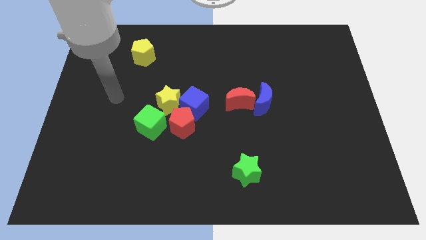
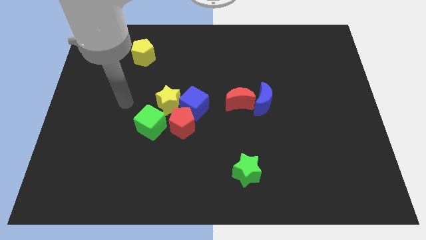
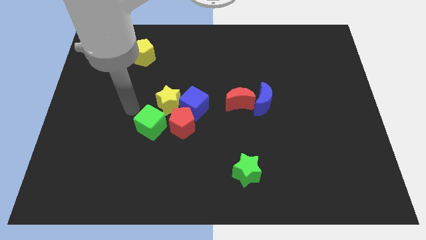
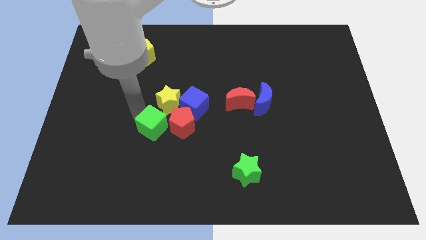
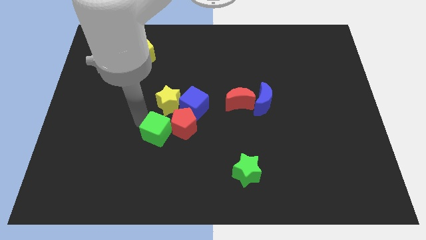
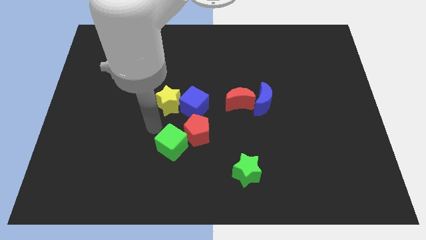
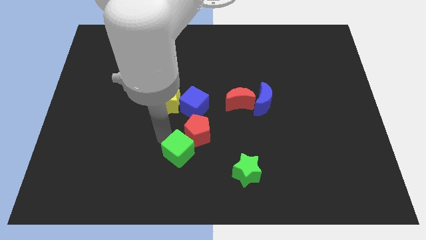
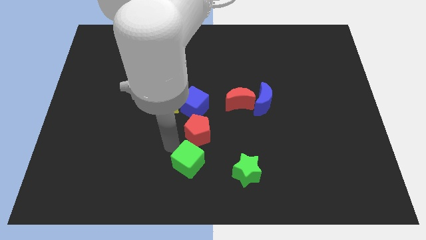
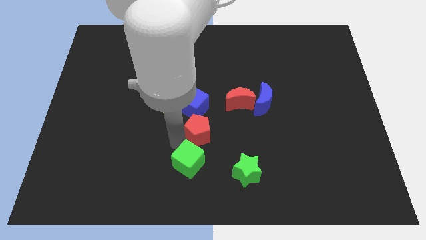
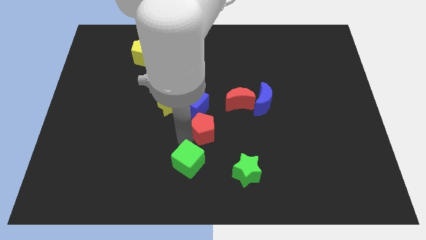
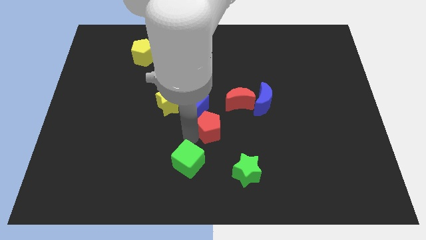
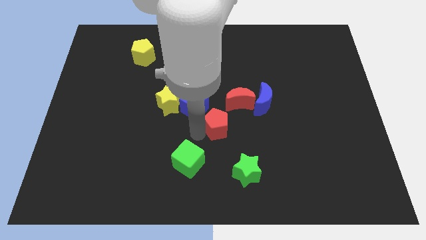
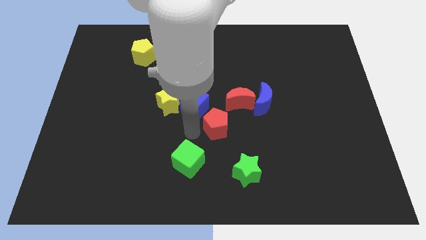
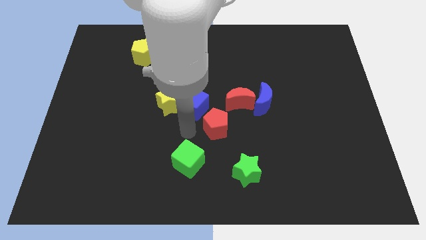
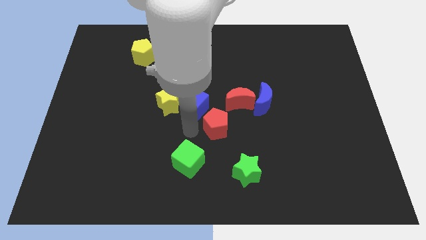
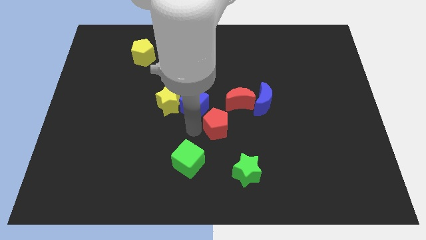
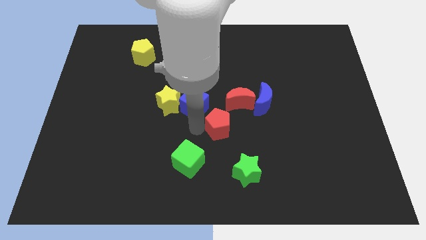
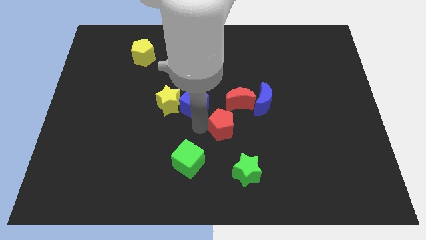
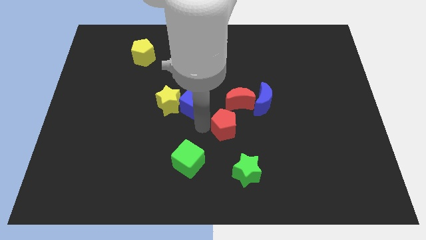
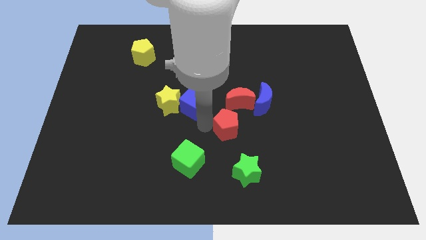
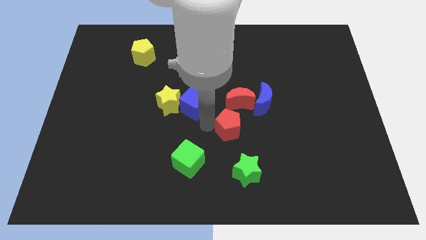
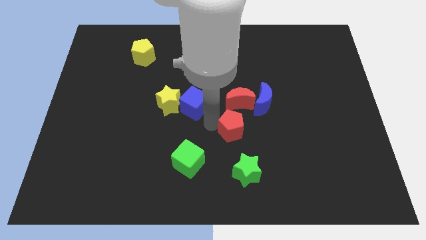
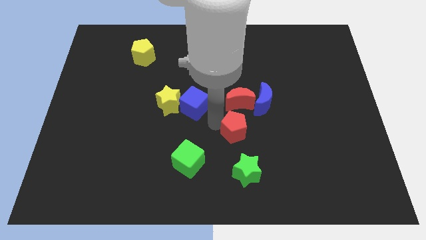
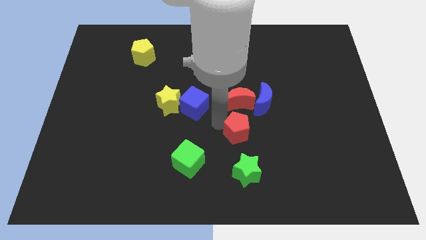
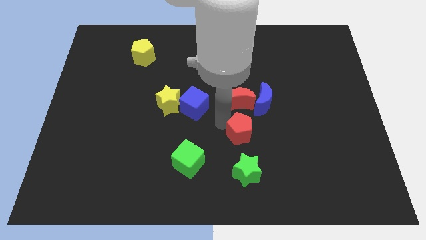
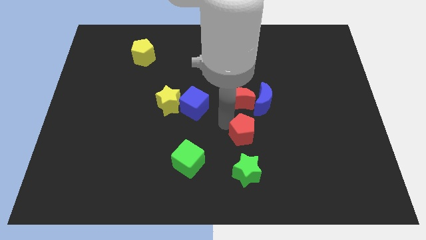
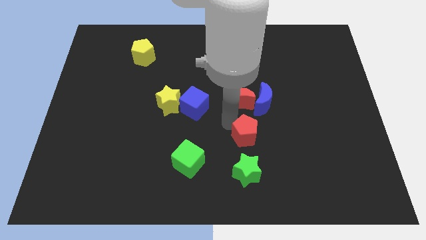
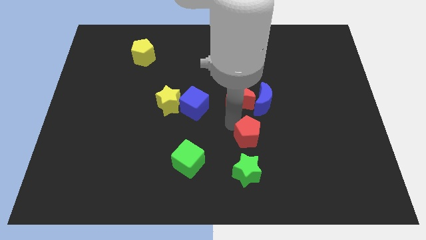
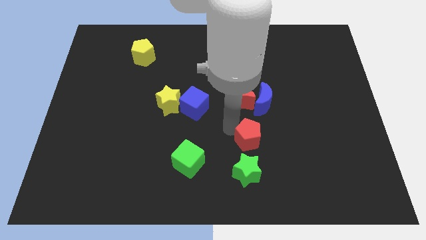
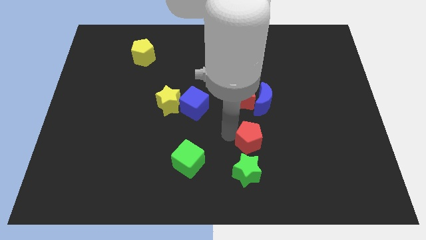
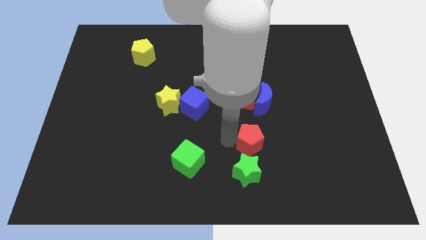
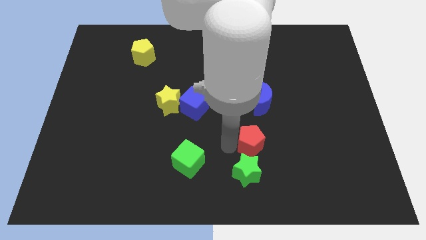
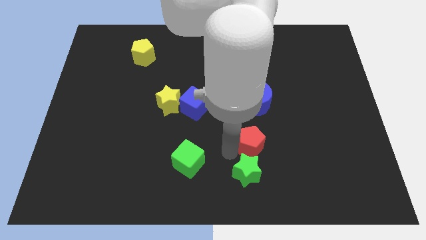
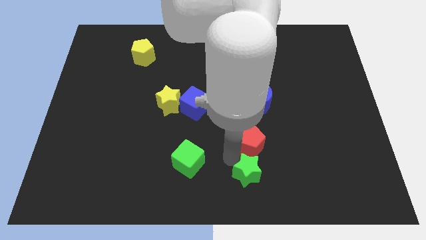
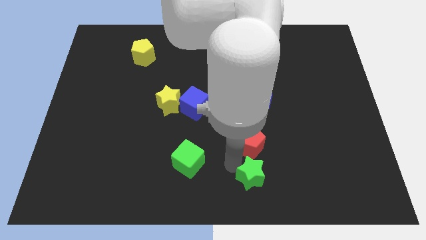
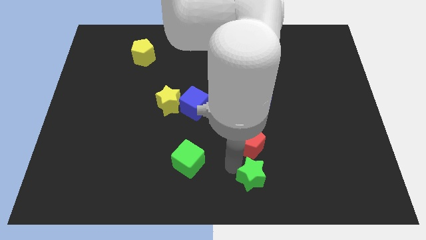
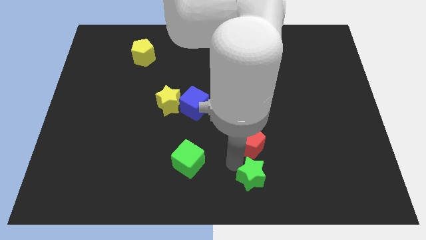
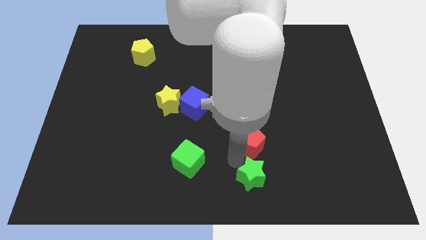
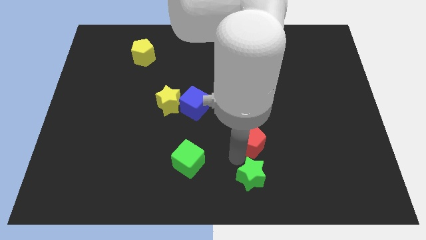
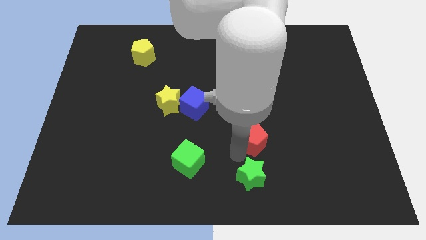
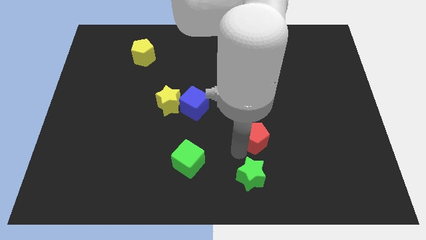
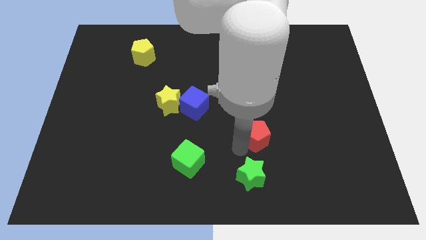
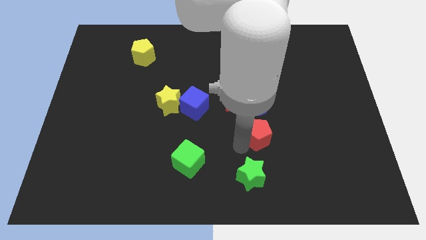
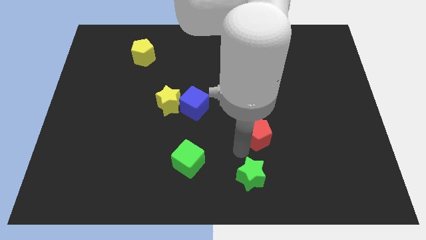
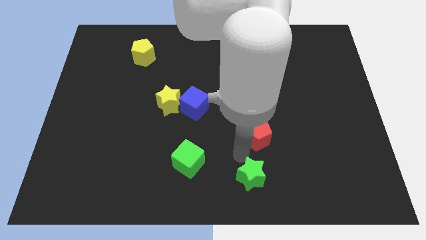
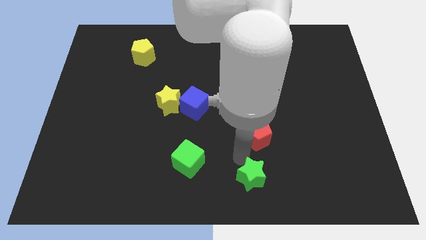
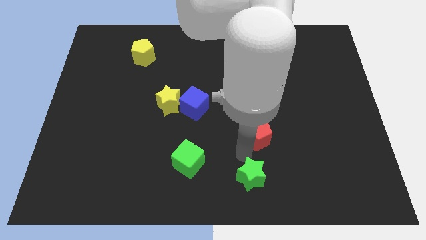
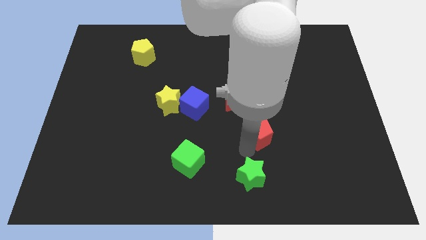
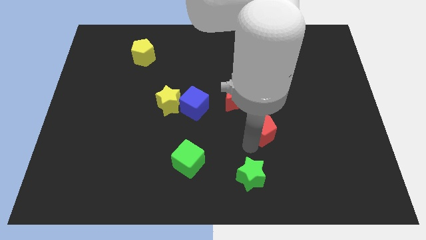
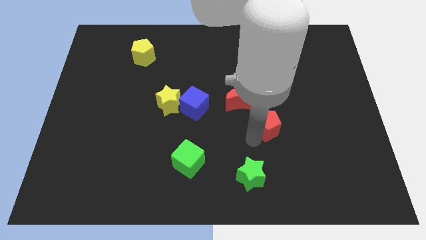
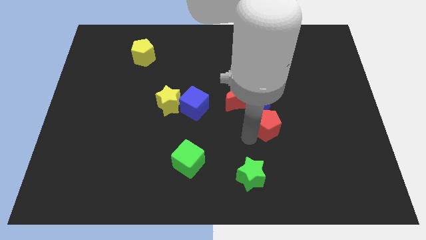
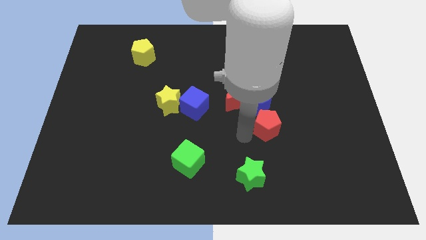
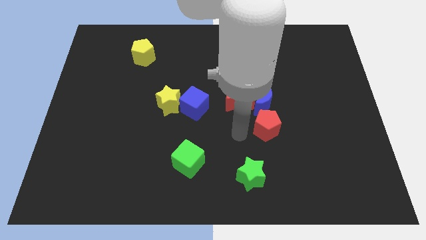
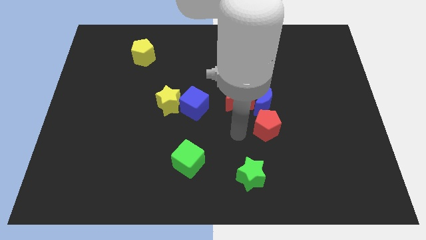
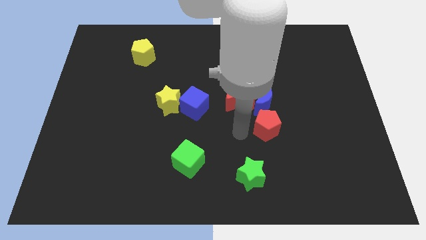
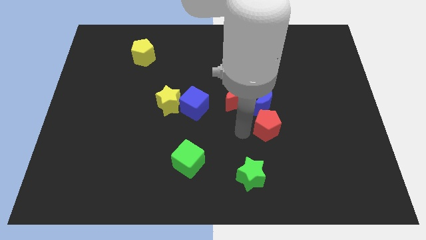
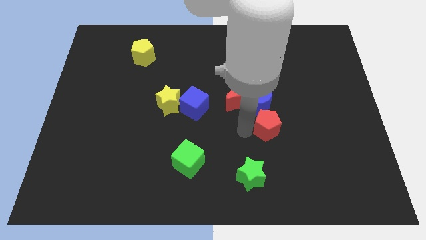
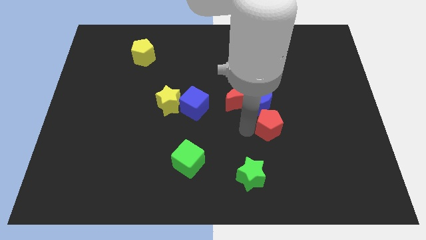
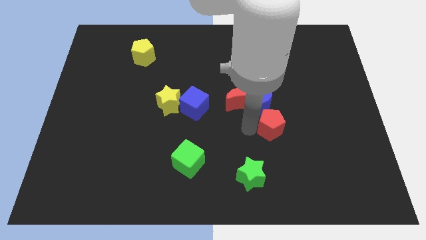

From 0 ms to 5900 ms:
slide the red pentagon to the right

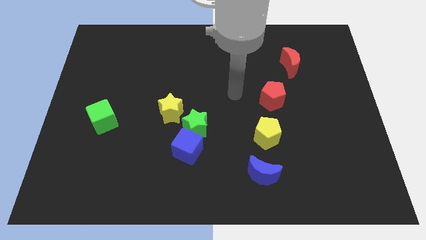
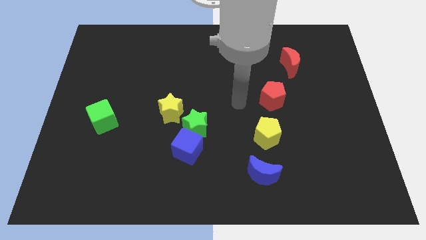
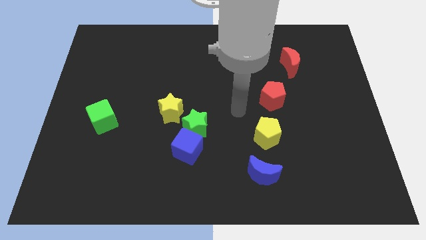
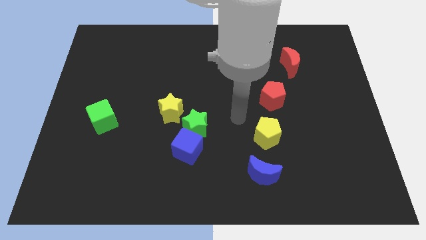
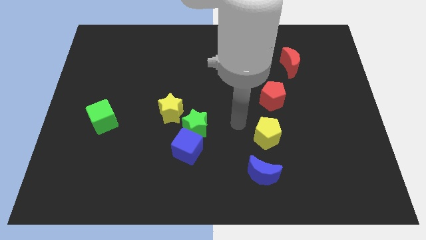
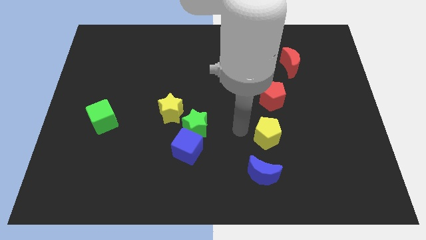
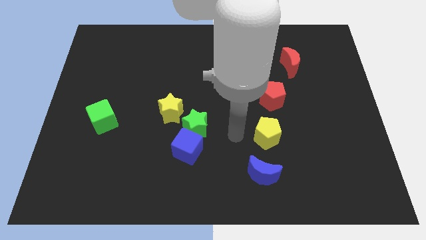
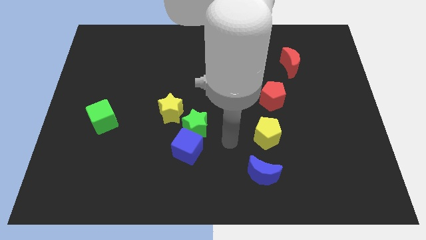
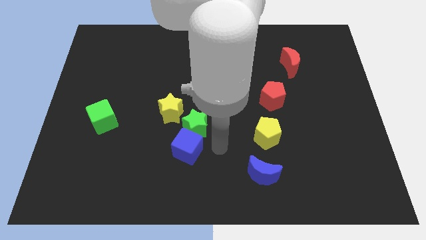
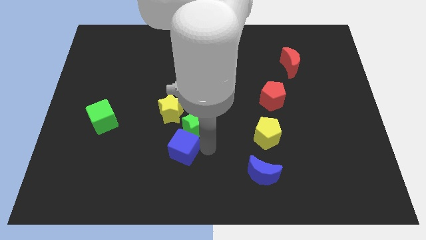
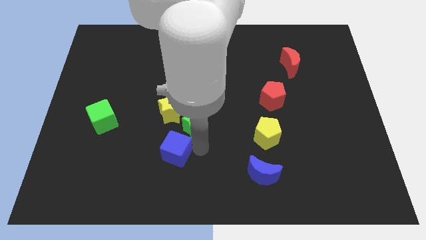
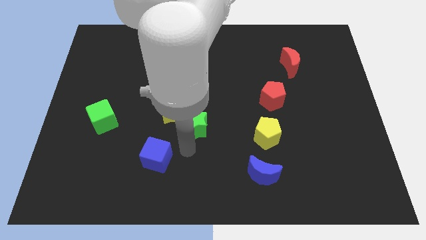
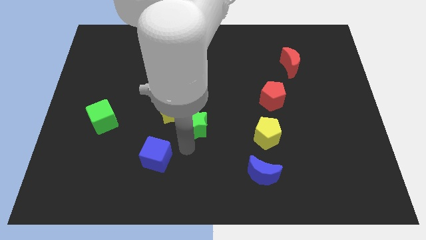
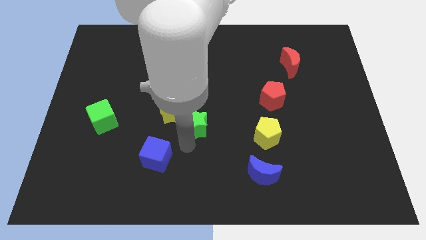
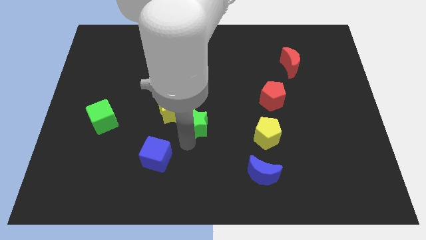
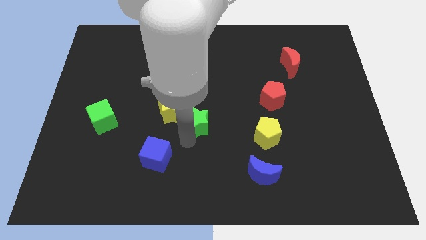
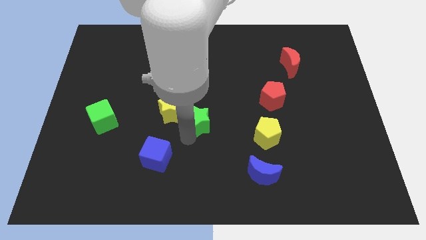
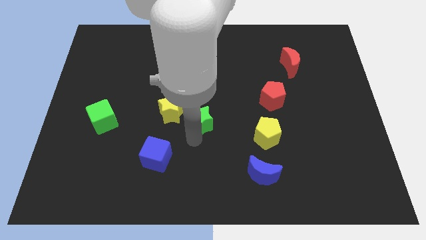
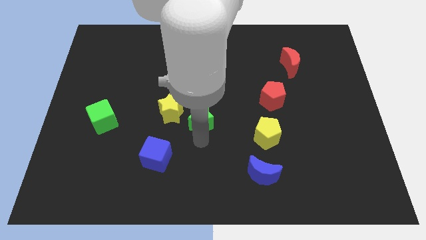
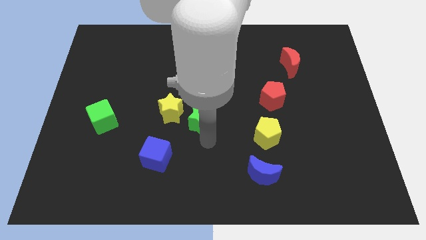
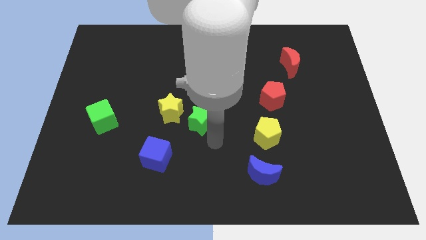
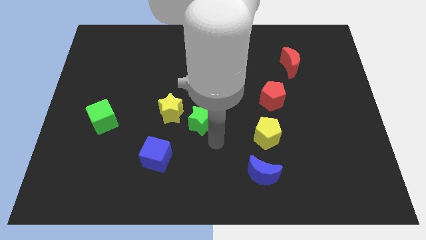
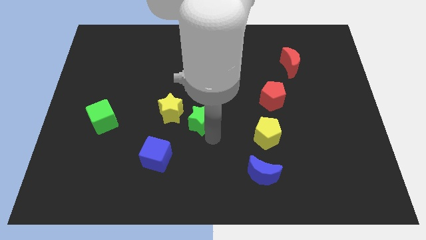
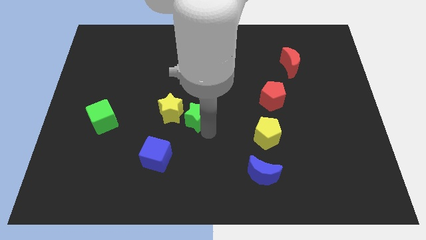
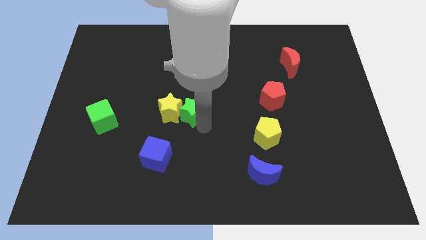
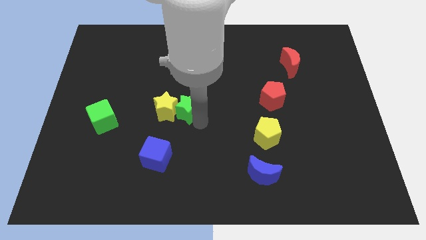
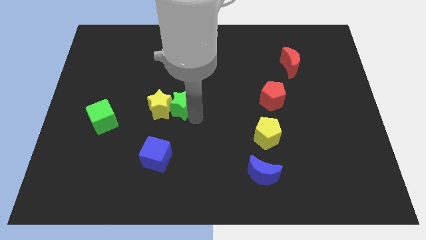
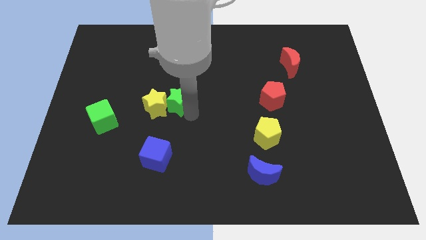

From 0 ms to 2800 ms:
move the green star slightly upwards and then to the left
